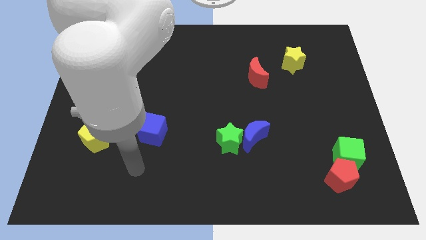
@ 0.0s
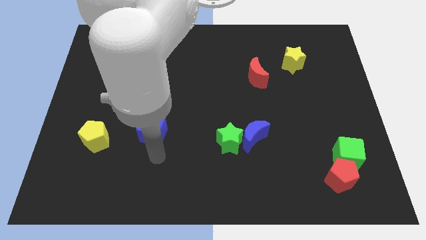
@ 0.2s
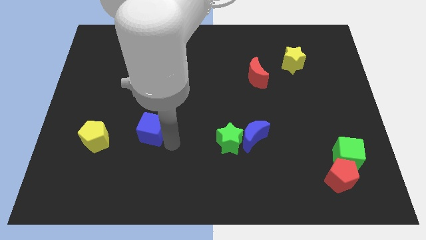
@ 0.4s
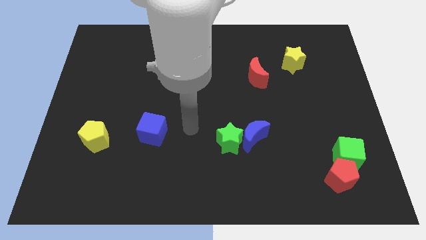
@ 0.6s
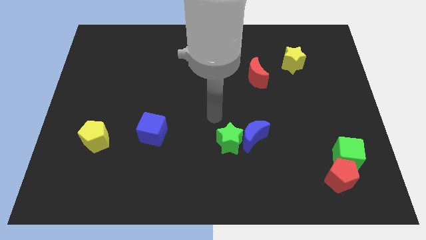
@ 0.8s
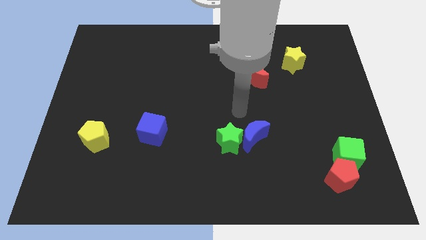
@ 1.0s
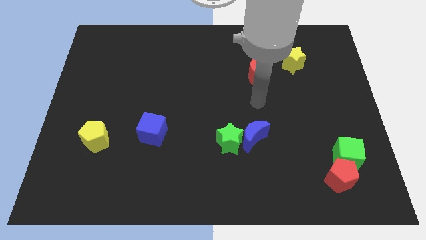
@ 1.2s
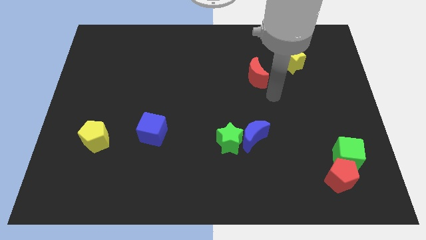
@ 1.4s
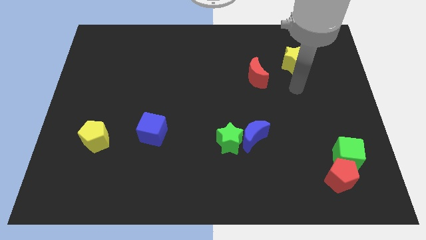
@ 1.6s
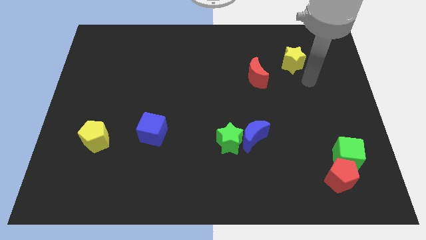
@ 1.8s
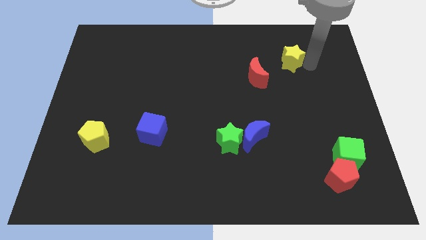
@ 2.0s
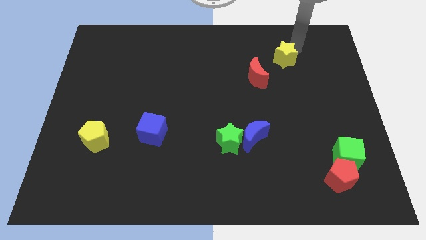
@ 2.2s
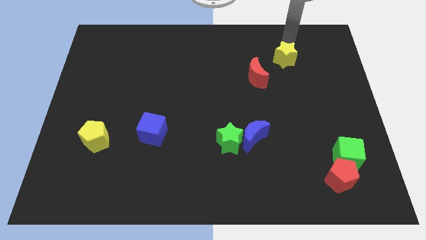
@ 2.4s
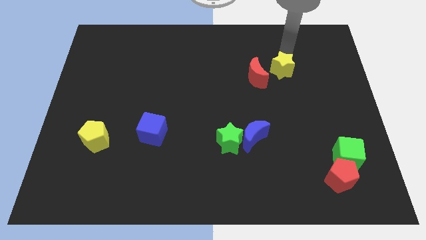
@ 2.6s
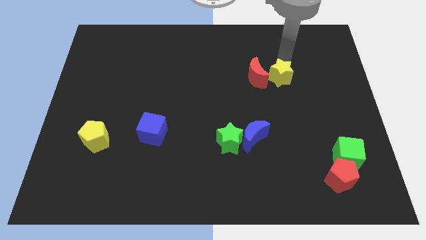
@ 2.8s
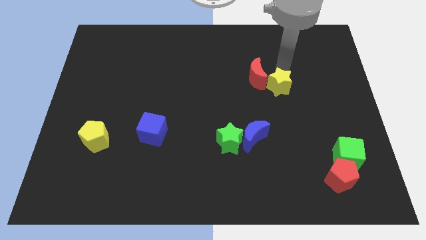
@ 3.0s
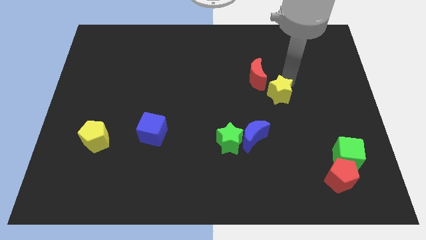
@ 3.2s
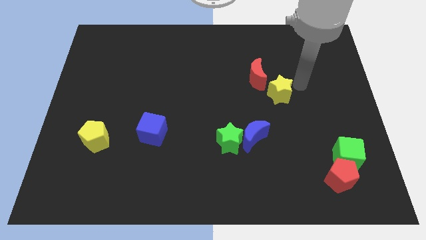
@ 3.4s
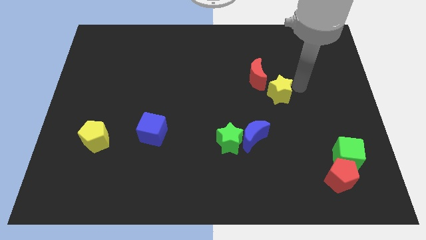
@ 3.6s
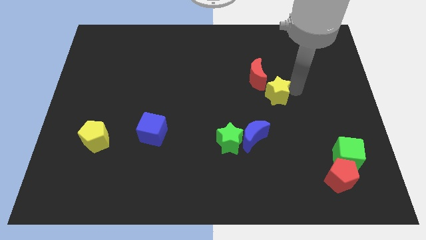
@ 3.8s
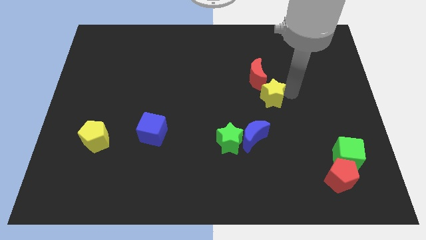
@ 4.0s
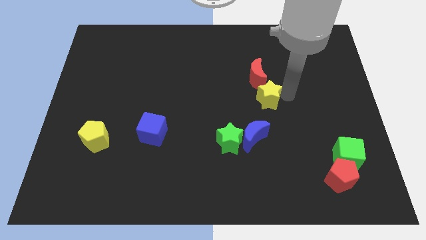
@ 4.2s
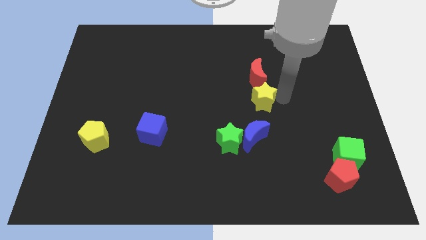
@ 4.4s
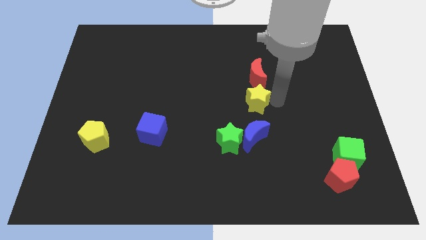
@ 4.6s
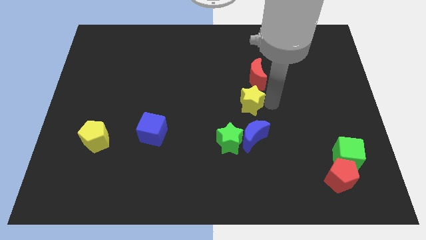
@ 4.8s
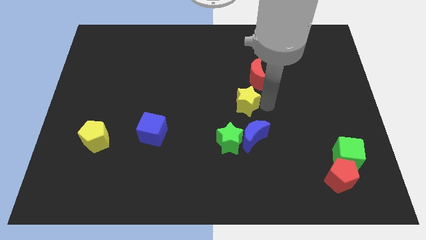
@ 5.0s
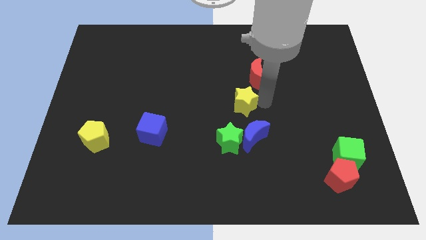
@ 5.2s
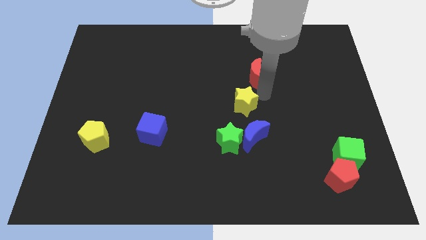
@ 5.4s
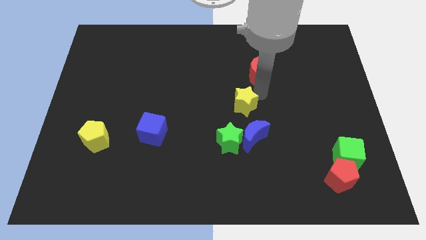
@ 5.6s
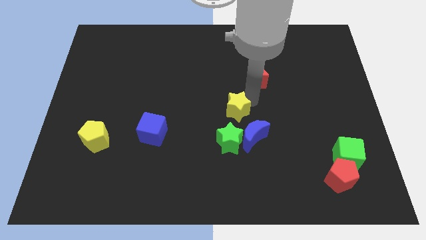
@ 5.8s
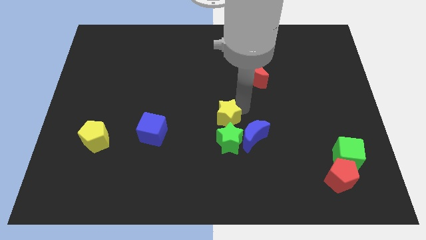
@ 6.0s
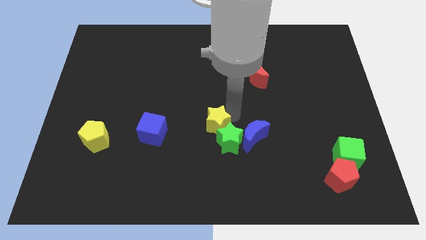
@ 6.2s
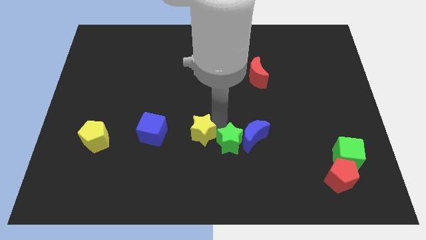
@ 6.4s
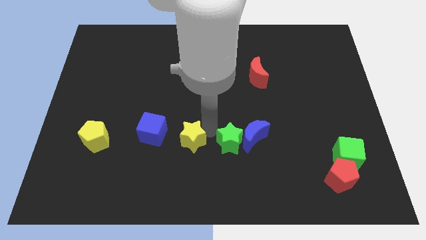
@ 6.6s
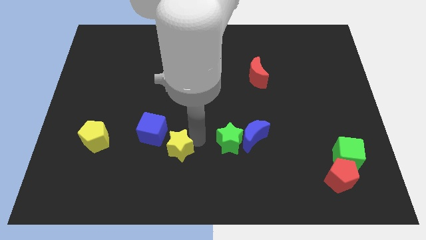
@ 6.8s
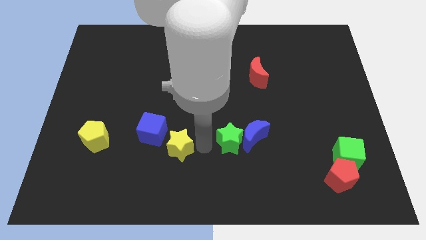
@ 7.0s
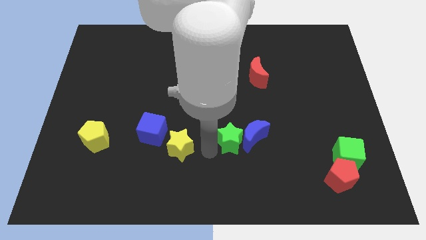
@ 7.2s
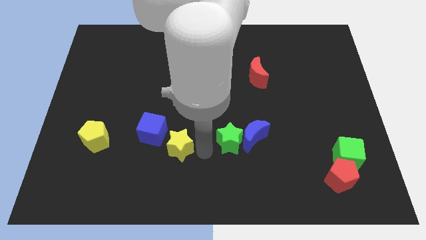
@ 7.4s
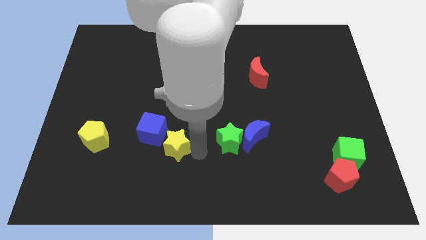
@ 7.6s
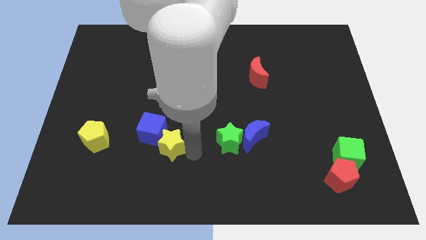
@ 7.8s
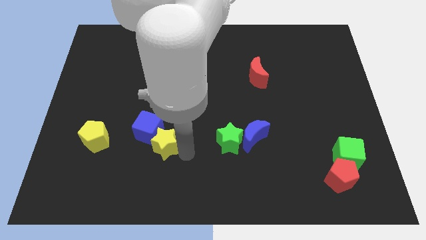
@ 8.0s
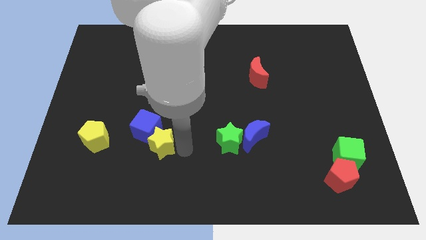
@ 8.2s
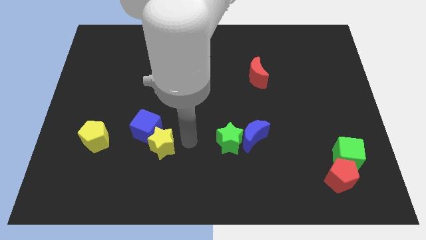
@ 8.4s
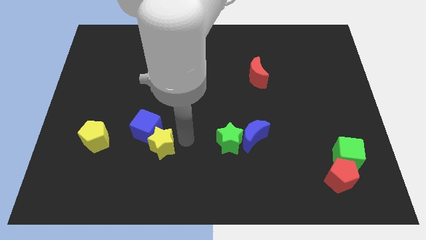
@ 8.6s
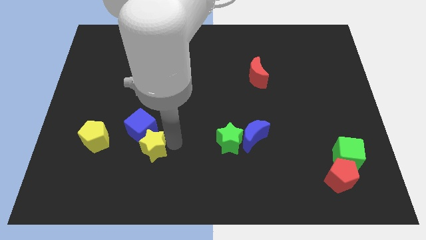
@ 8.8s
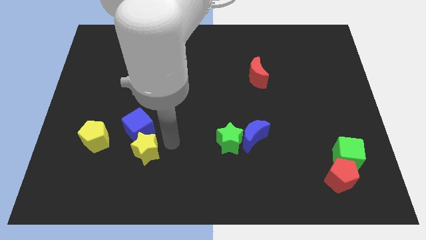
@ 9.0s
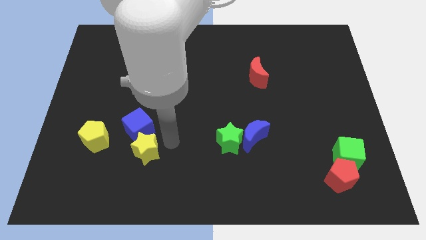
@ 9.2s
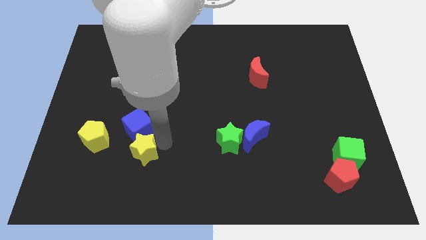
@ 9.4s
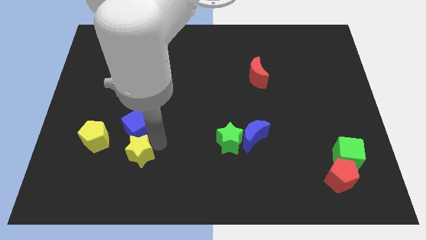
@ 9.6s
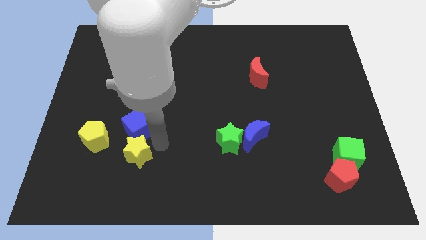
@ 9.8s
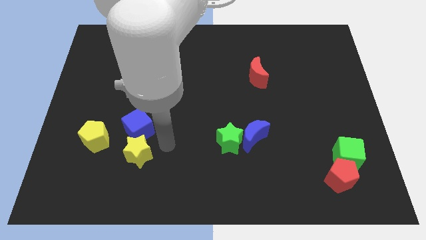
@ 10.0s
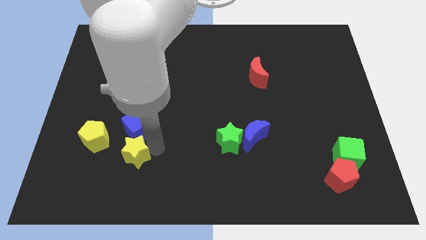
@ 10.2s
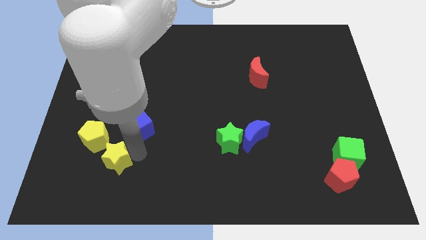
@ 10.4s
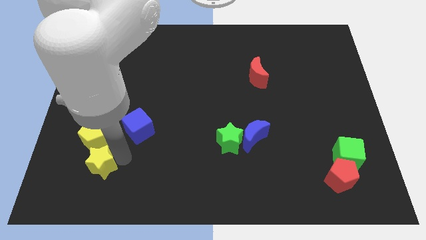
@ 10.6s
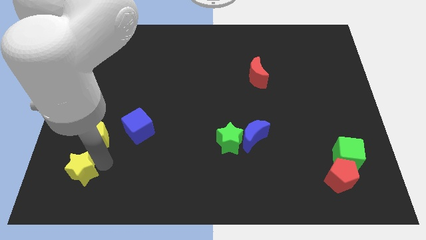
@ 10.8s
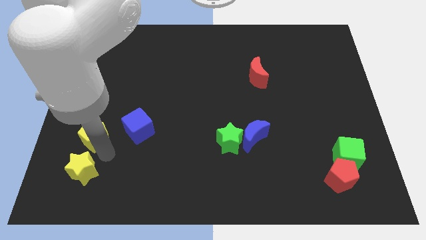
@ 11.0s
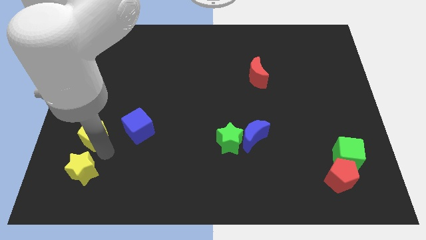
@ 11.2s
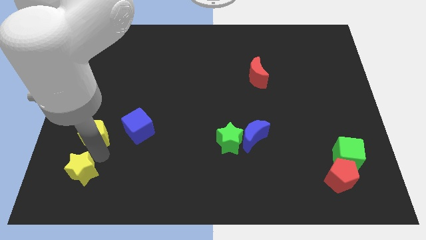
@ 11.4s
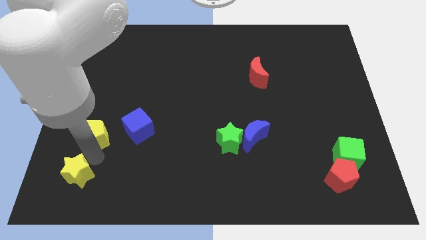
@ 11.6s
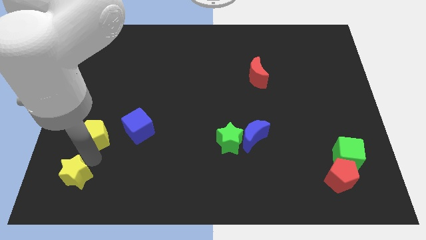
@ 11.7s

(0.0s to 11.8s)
push the yellow star to the bottom left
